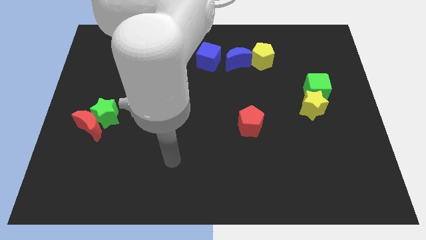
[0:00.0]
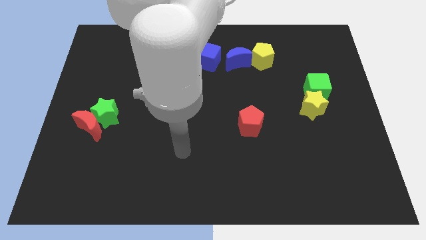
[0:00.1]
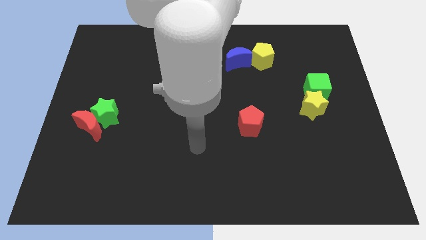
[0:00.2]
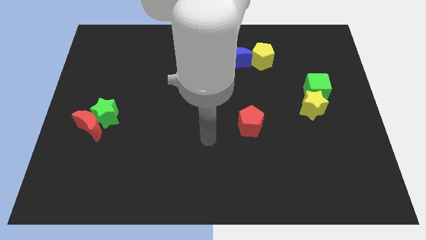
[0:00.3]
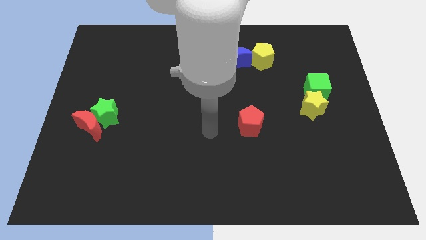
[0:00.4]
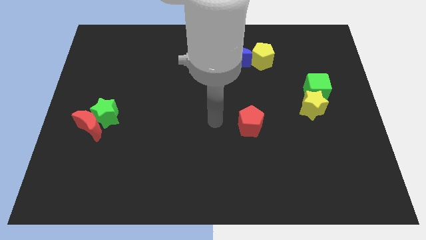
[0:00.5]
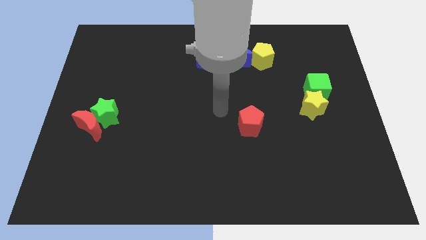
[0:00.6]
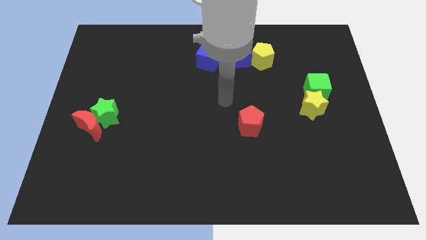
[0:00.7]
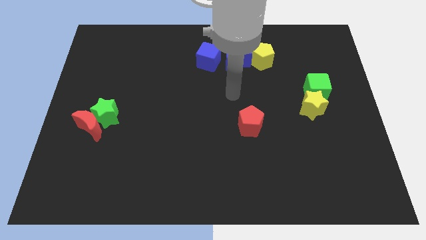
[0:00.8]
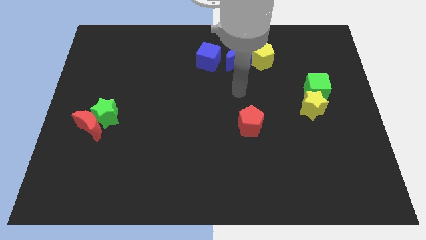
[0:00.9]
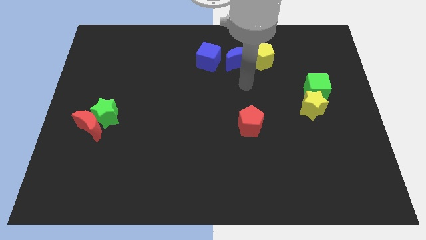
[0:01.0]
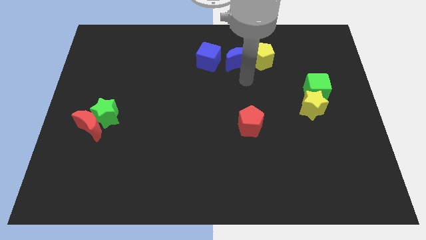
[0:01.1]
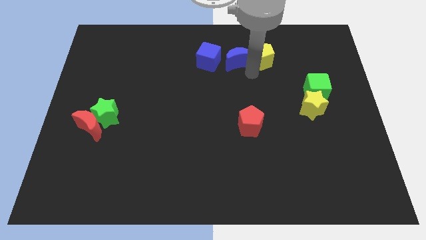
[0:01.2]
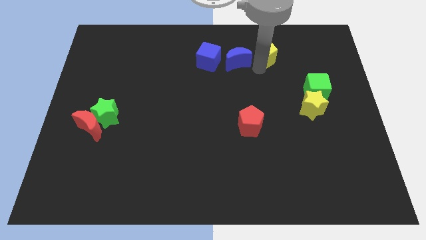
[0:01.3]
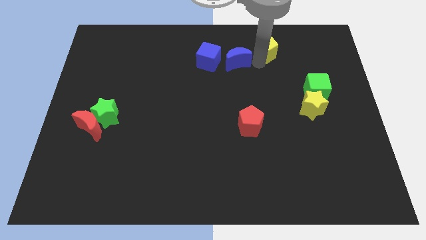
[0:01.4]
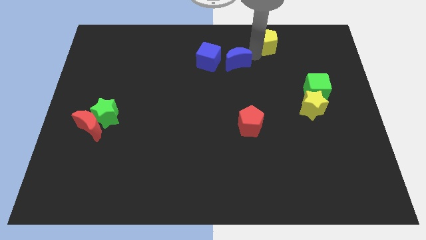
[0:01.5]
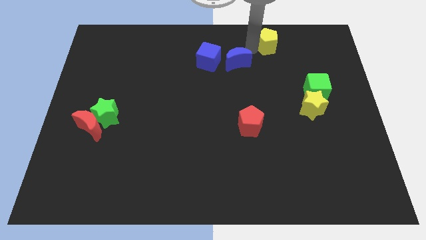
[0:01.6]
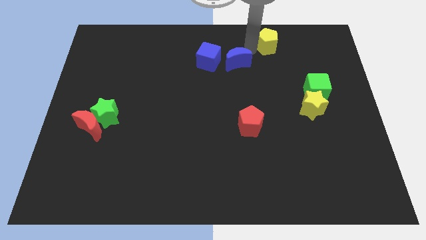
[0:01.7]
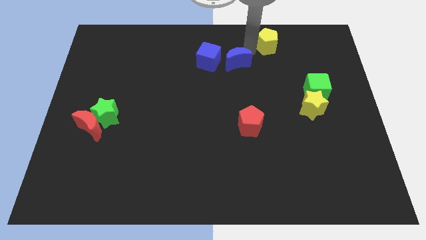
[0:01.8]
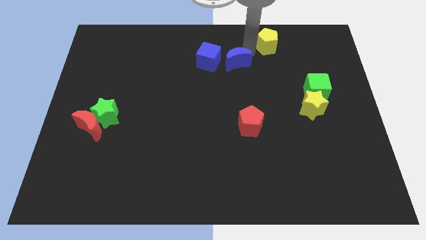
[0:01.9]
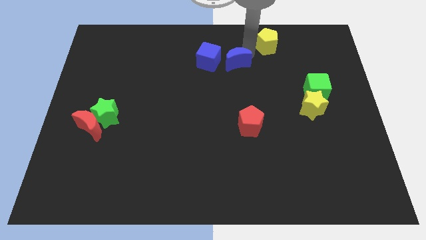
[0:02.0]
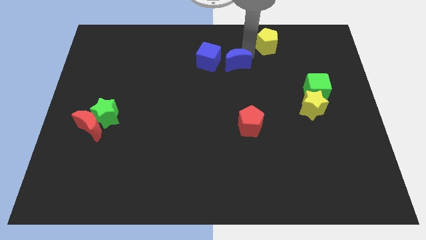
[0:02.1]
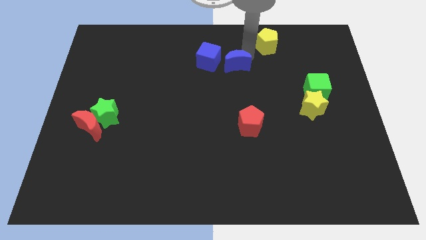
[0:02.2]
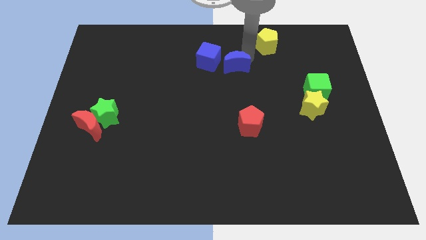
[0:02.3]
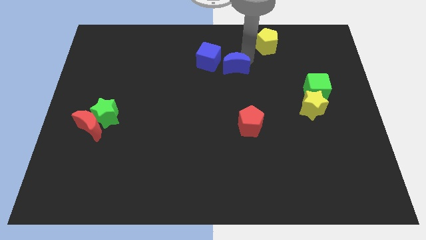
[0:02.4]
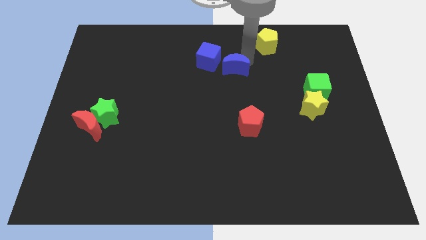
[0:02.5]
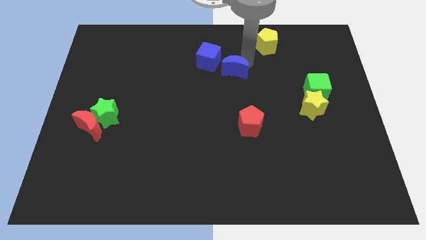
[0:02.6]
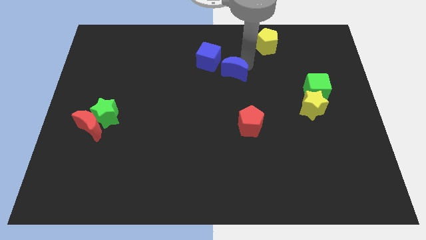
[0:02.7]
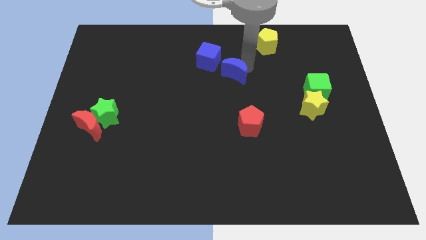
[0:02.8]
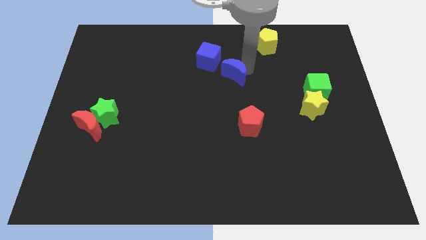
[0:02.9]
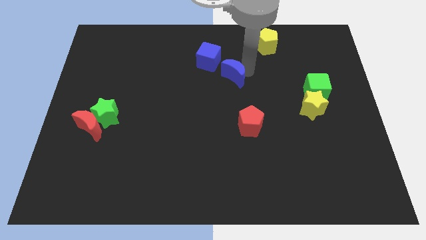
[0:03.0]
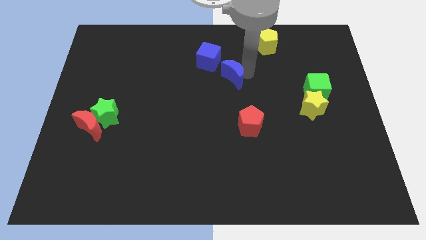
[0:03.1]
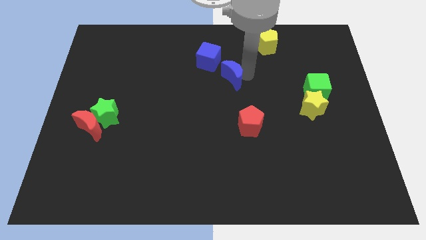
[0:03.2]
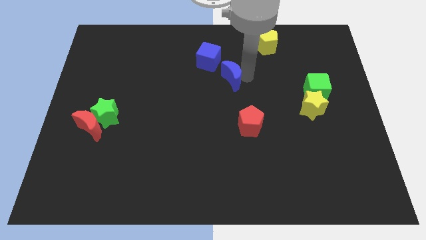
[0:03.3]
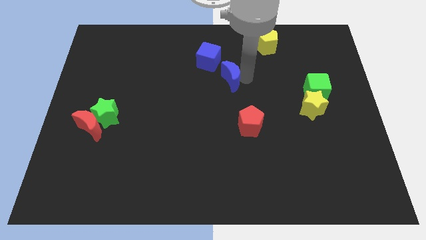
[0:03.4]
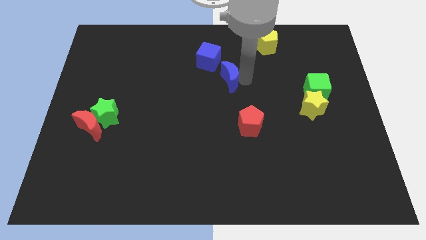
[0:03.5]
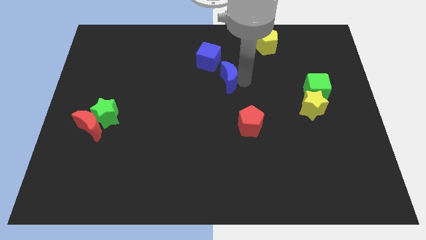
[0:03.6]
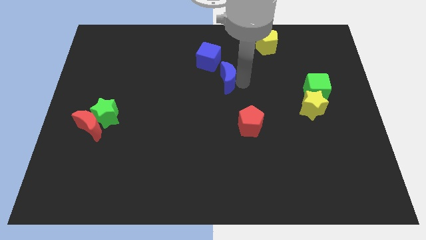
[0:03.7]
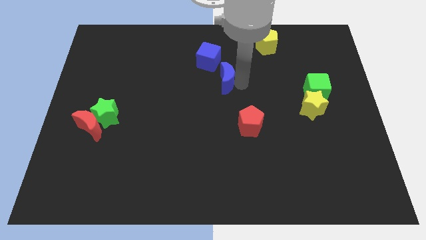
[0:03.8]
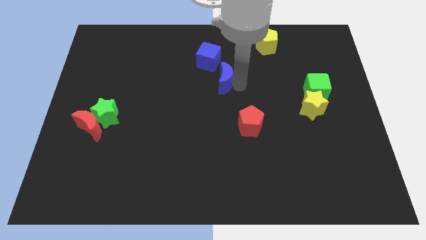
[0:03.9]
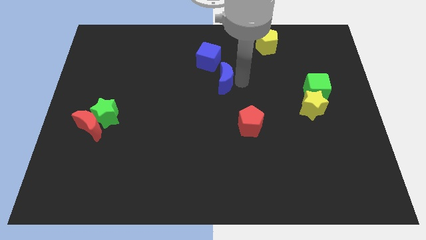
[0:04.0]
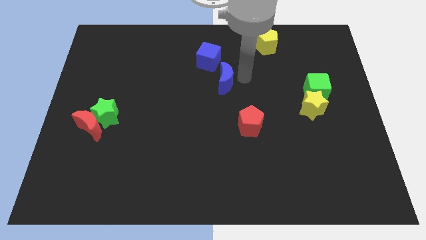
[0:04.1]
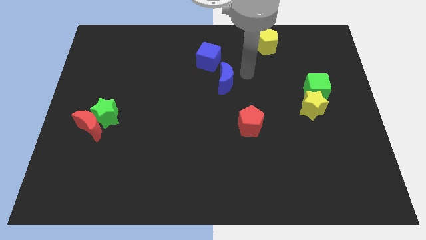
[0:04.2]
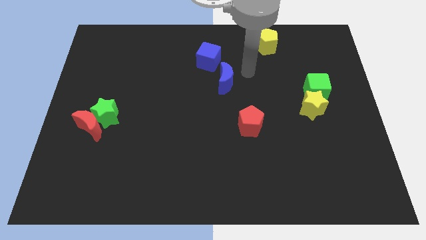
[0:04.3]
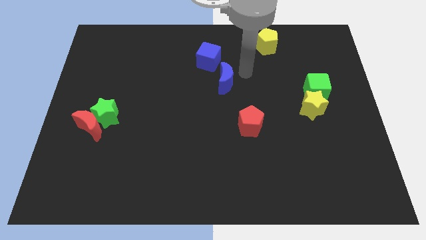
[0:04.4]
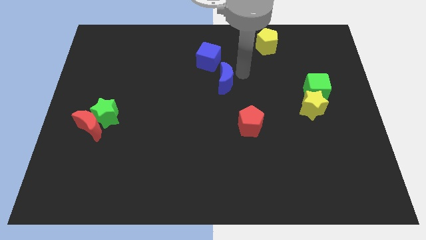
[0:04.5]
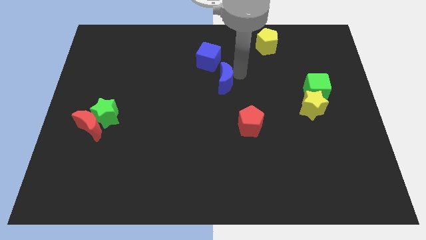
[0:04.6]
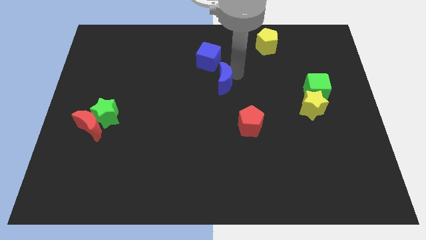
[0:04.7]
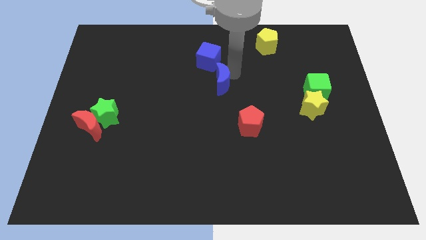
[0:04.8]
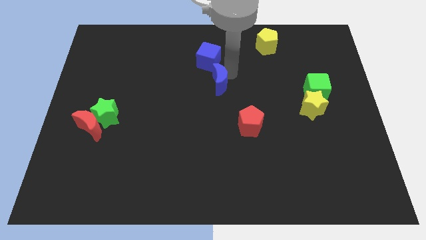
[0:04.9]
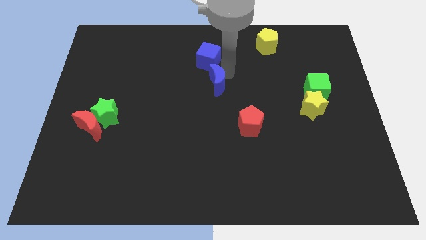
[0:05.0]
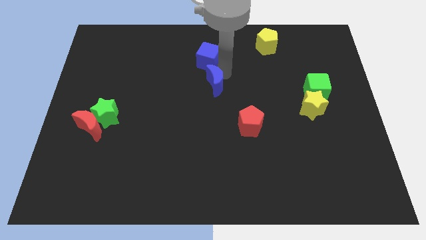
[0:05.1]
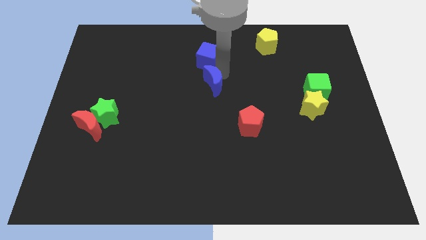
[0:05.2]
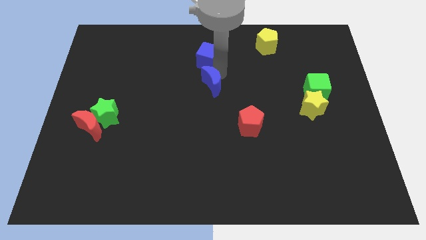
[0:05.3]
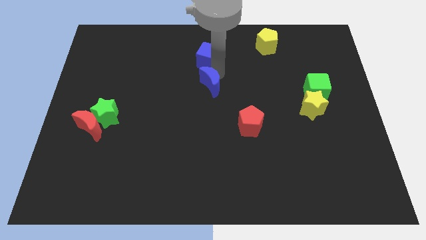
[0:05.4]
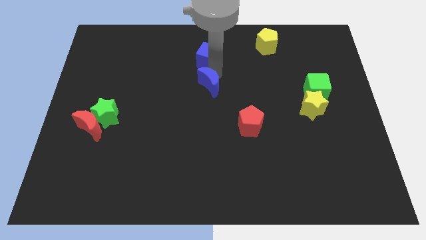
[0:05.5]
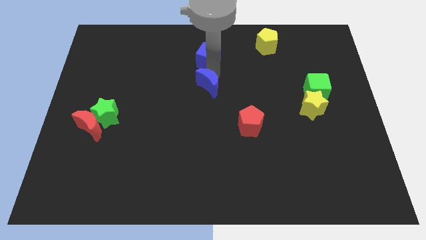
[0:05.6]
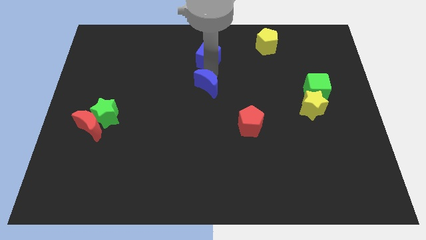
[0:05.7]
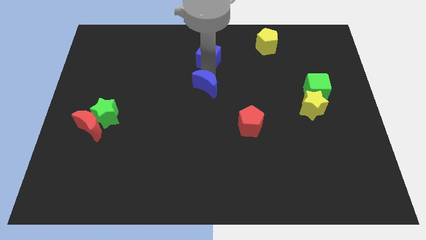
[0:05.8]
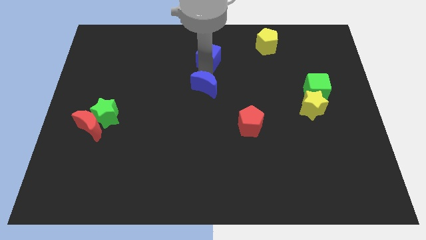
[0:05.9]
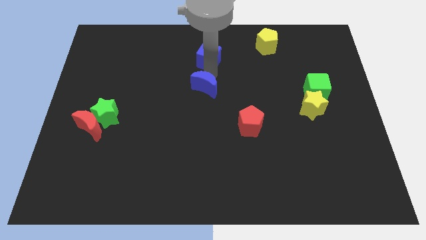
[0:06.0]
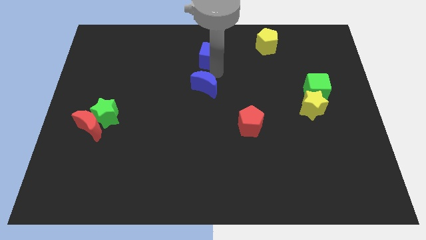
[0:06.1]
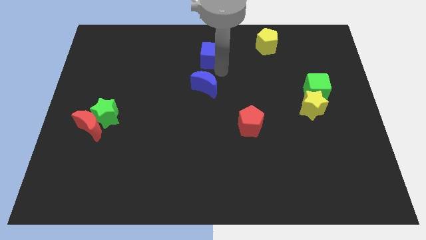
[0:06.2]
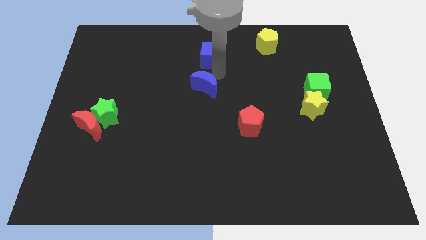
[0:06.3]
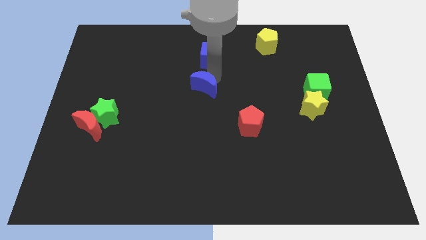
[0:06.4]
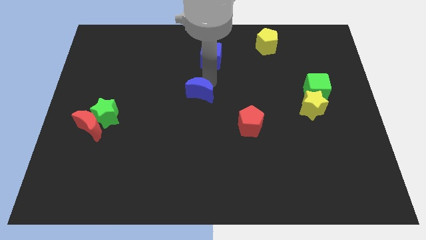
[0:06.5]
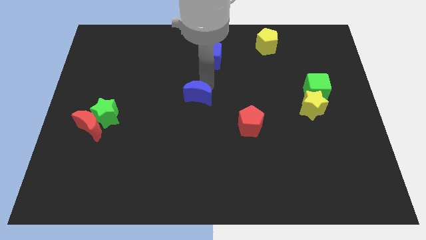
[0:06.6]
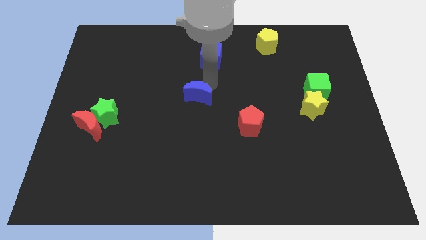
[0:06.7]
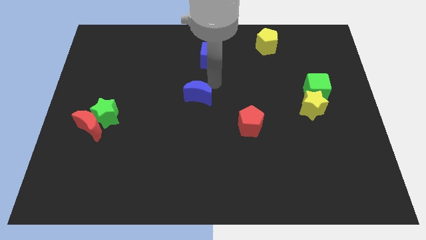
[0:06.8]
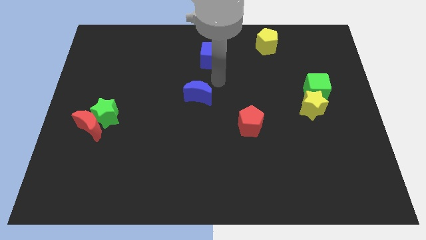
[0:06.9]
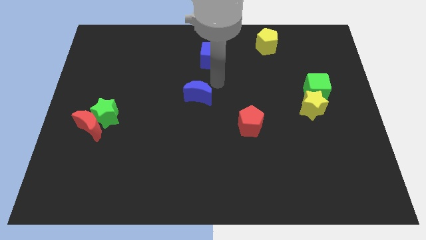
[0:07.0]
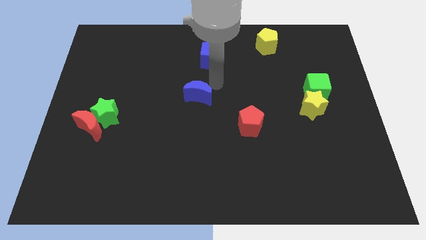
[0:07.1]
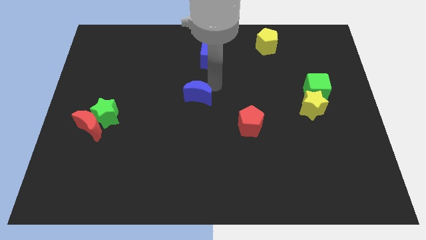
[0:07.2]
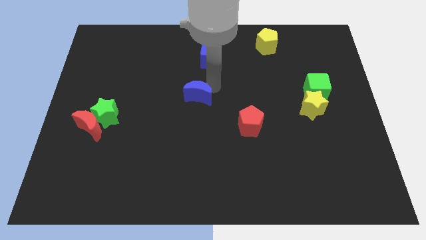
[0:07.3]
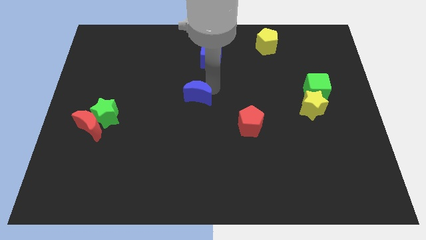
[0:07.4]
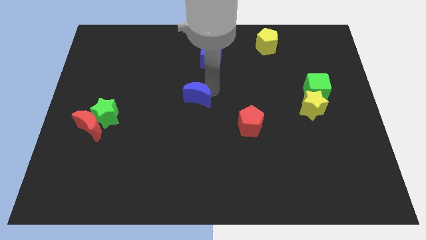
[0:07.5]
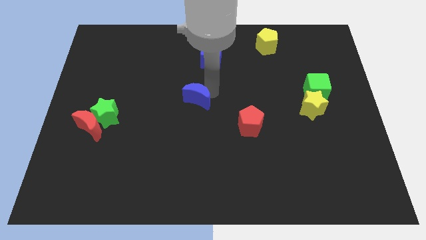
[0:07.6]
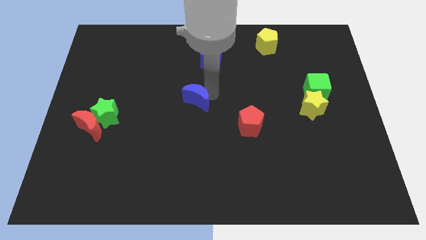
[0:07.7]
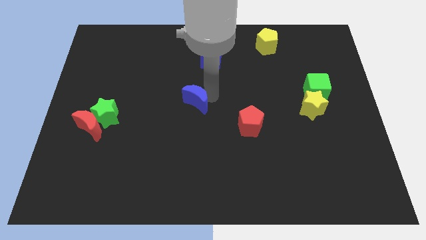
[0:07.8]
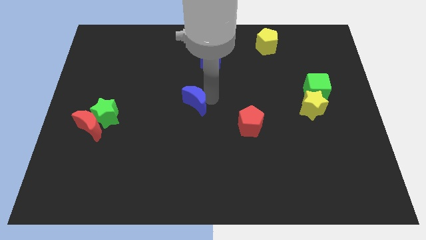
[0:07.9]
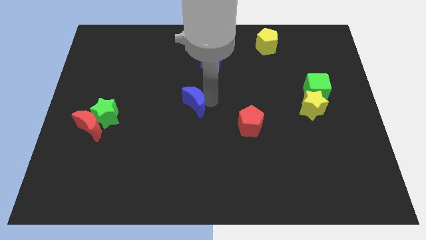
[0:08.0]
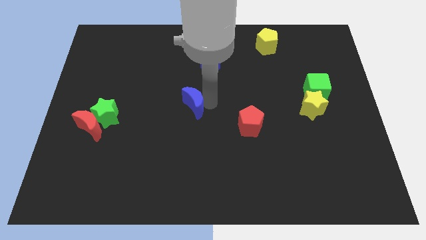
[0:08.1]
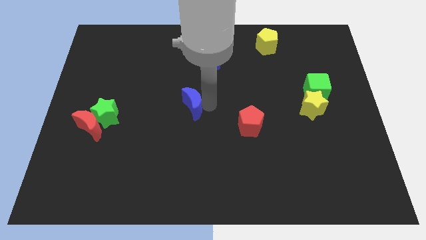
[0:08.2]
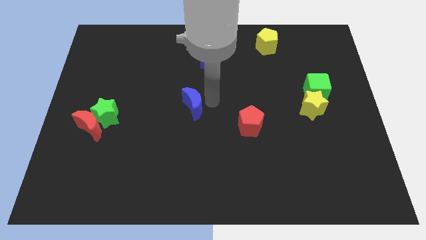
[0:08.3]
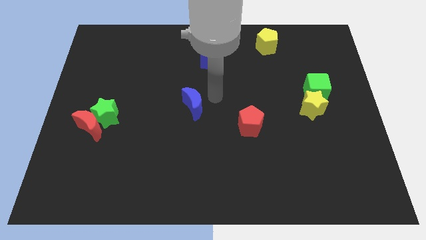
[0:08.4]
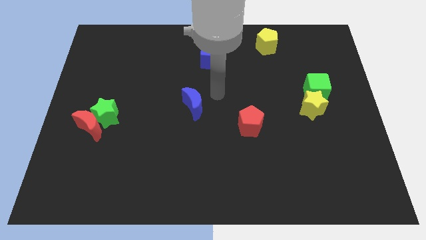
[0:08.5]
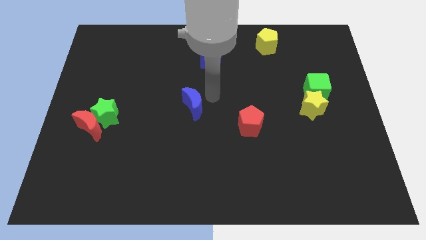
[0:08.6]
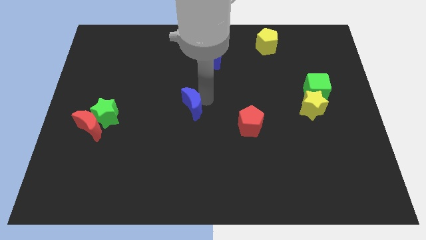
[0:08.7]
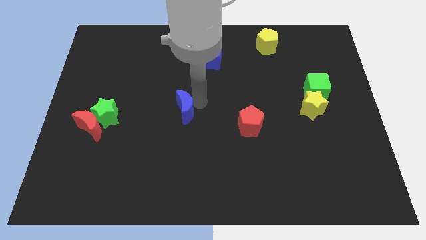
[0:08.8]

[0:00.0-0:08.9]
slide the blue moon downwards and to the left diagonally
